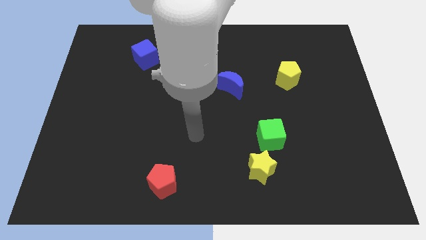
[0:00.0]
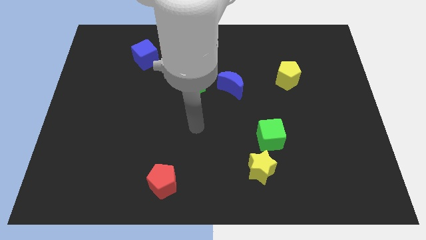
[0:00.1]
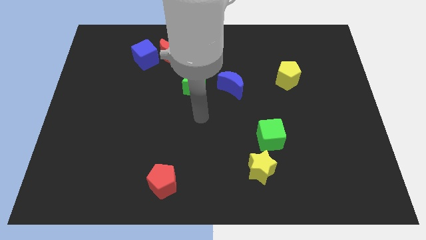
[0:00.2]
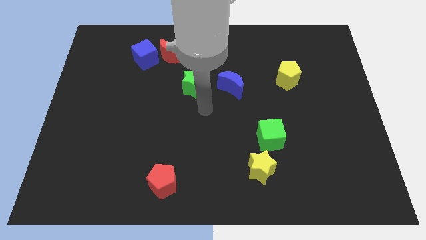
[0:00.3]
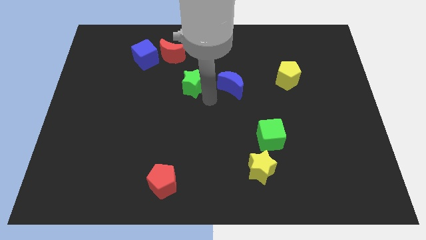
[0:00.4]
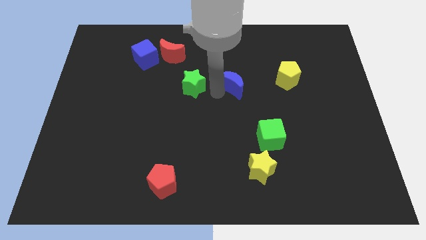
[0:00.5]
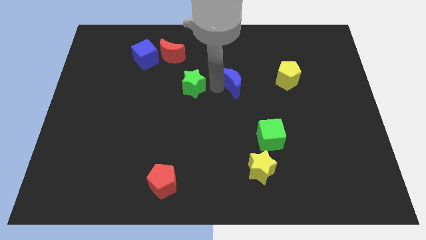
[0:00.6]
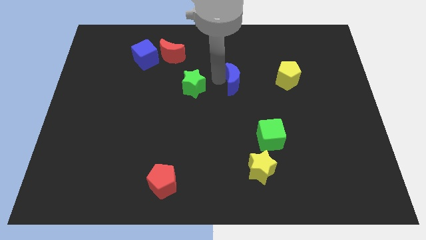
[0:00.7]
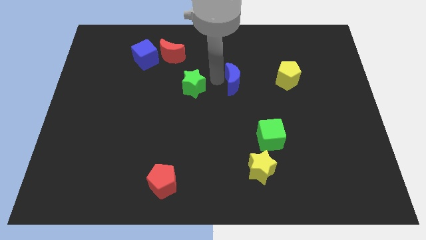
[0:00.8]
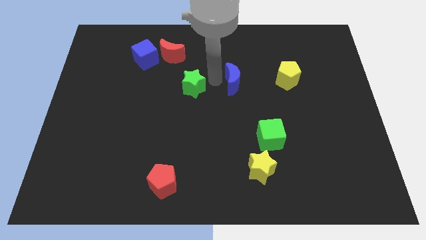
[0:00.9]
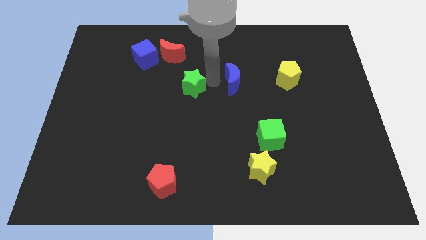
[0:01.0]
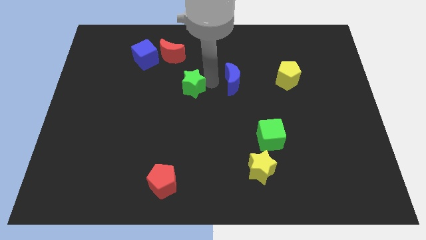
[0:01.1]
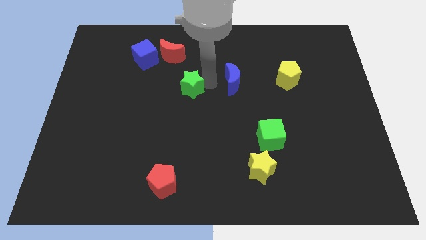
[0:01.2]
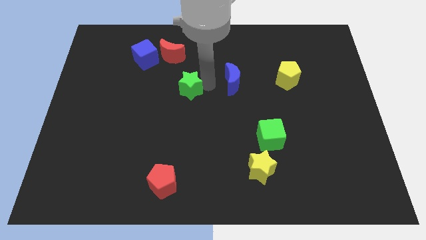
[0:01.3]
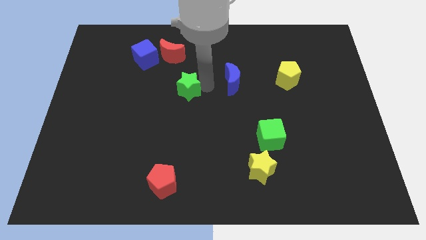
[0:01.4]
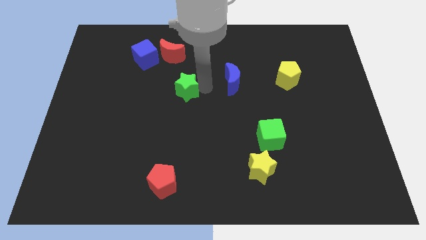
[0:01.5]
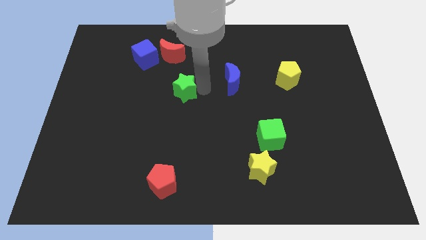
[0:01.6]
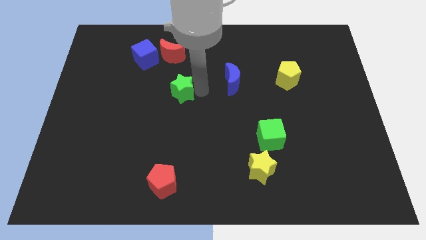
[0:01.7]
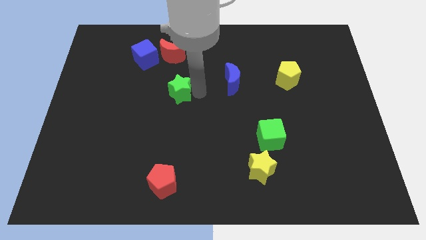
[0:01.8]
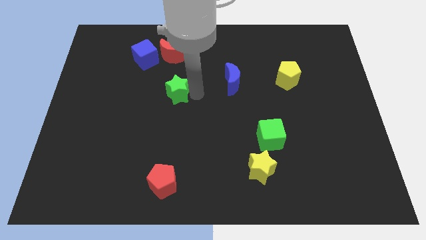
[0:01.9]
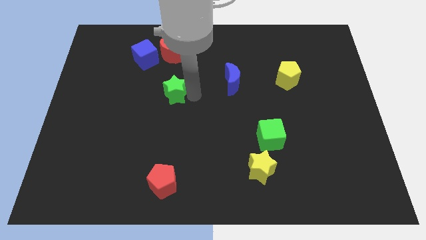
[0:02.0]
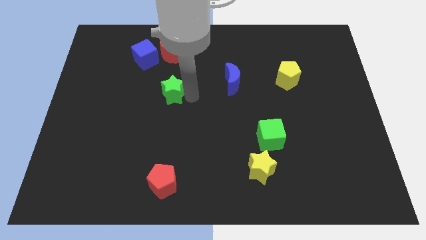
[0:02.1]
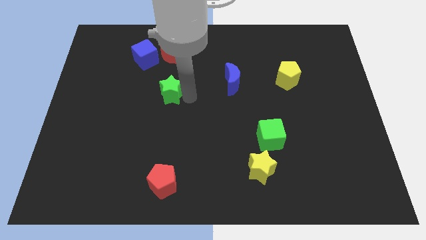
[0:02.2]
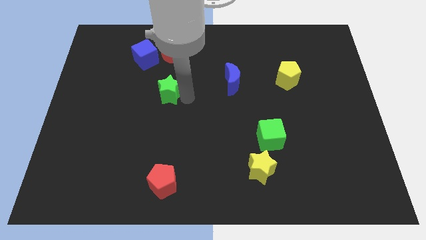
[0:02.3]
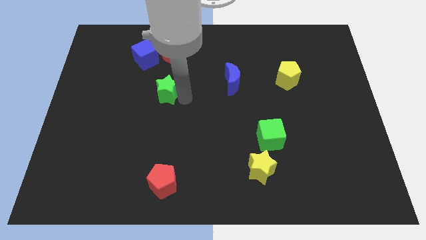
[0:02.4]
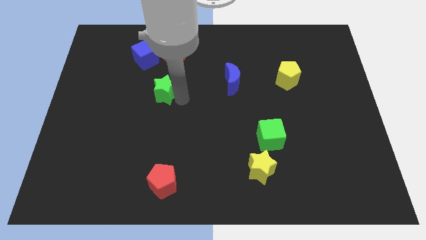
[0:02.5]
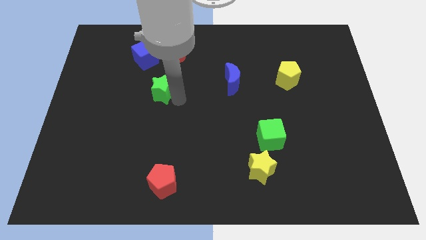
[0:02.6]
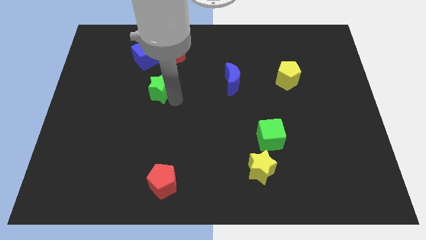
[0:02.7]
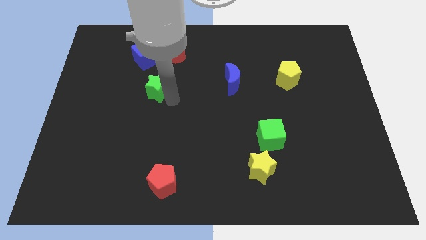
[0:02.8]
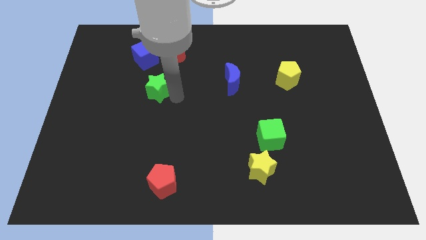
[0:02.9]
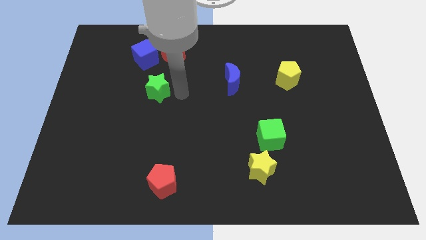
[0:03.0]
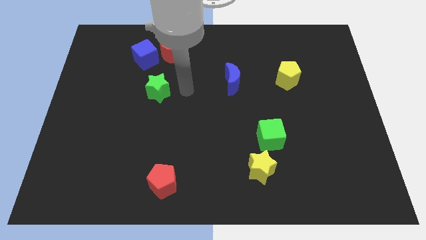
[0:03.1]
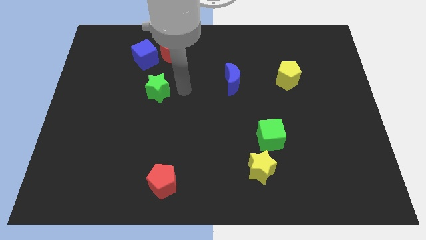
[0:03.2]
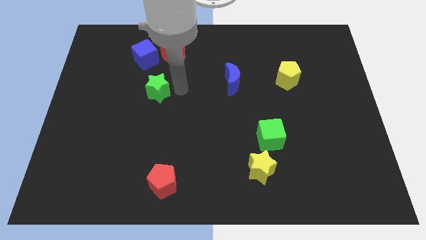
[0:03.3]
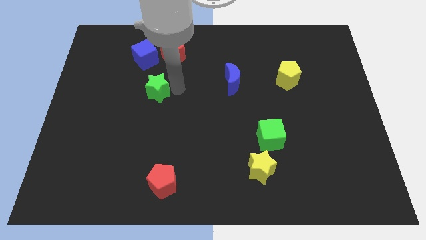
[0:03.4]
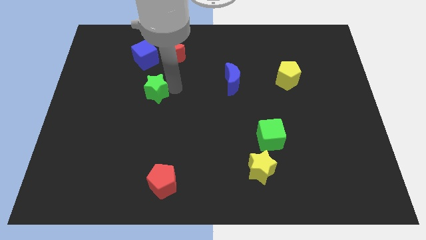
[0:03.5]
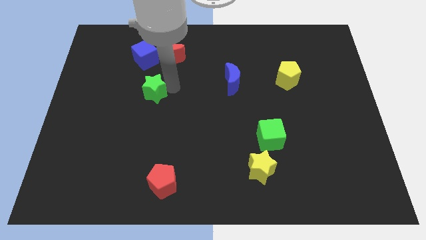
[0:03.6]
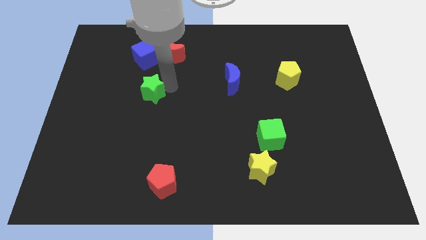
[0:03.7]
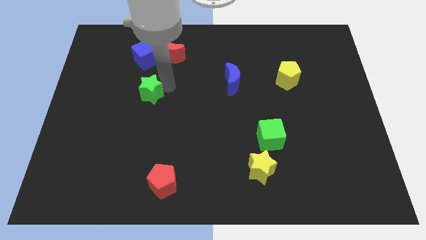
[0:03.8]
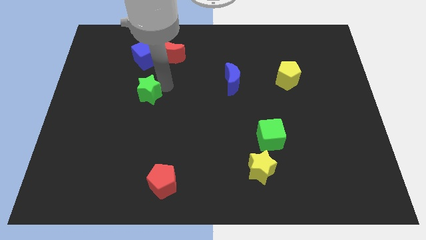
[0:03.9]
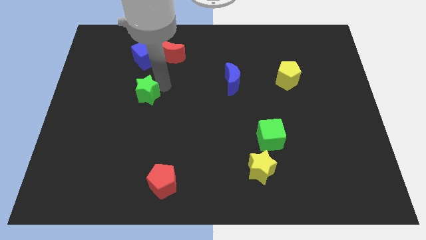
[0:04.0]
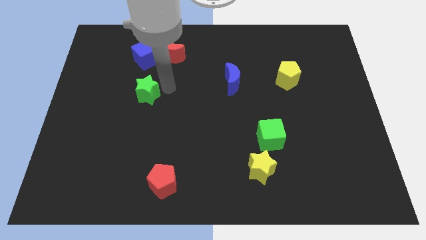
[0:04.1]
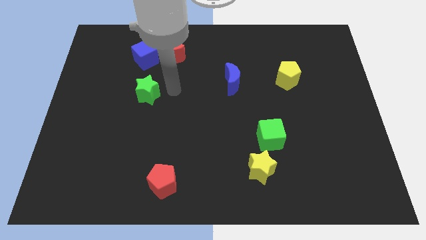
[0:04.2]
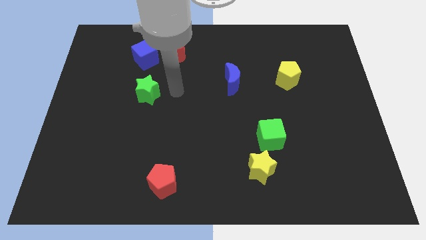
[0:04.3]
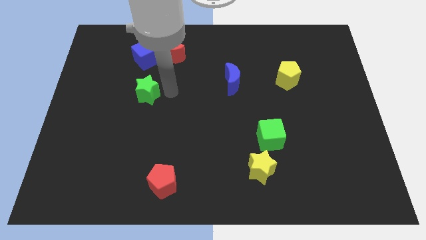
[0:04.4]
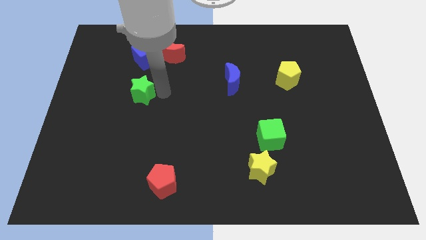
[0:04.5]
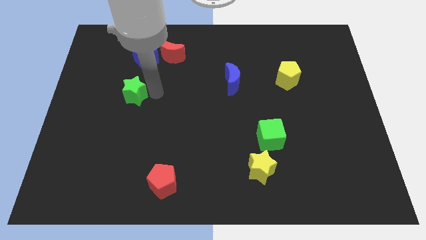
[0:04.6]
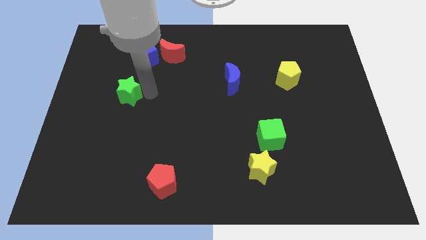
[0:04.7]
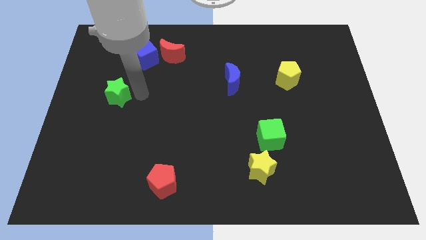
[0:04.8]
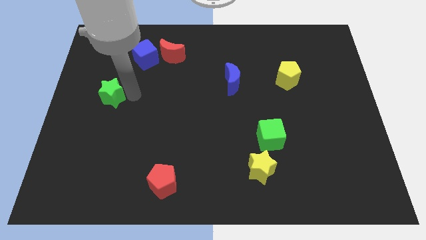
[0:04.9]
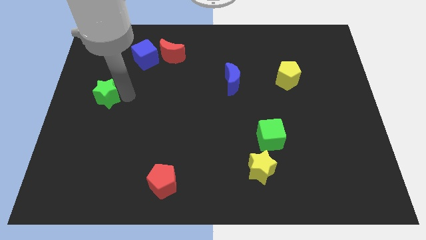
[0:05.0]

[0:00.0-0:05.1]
push the green star to the center left
